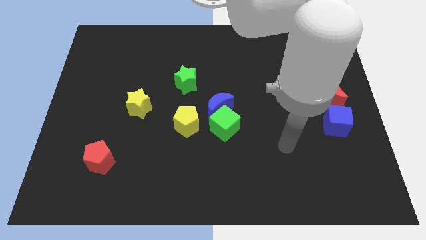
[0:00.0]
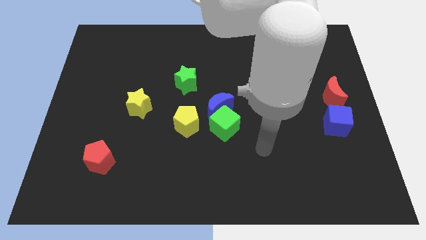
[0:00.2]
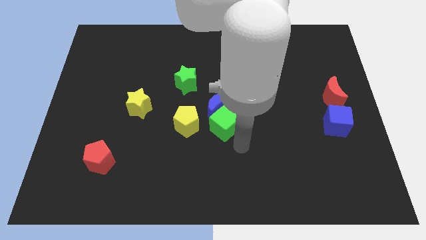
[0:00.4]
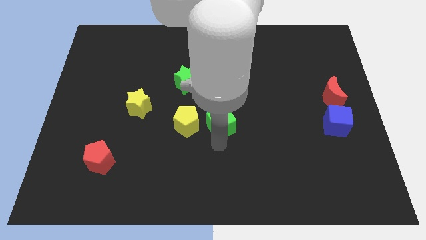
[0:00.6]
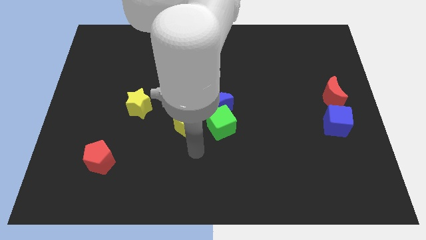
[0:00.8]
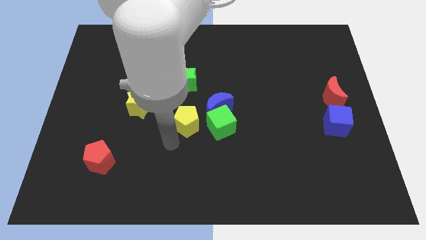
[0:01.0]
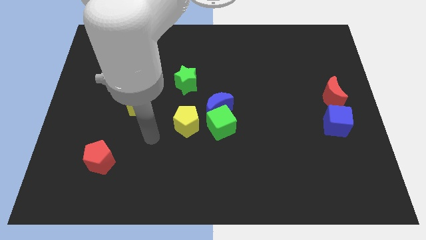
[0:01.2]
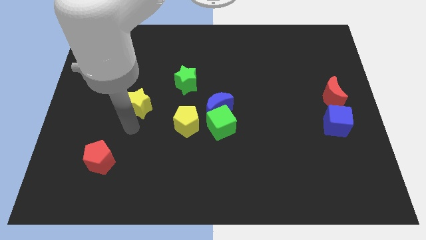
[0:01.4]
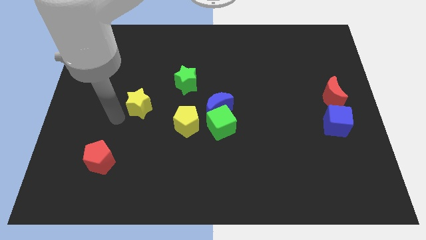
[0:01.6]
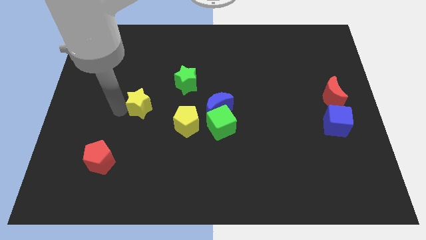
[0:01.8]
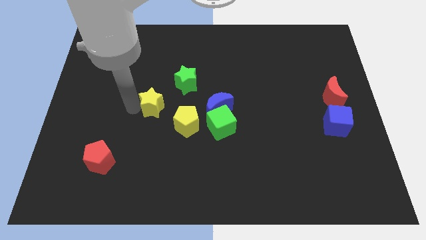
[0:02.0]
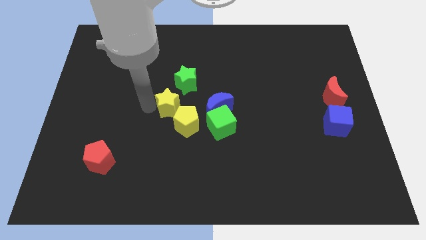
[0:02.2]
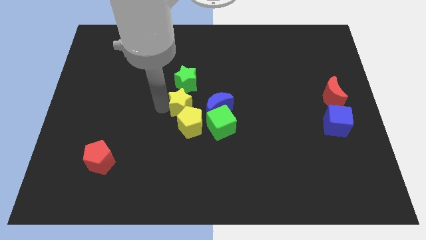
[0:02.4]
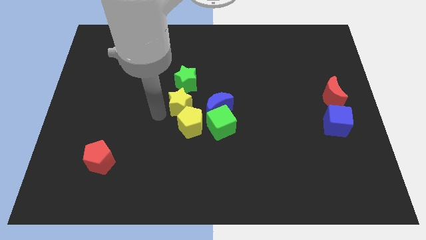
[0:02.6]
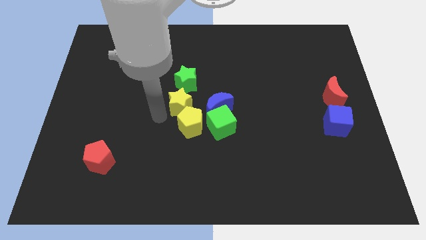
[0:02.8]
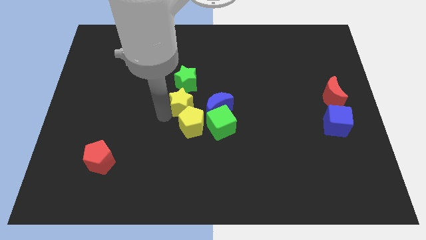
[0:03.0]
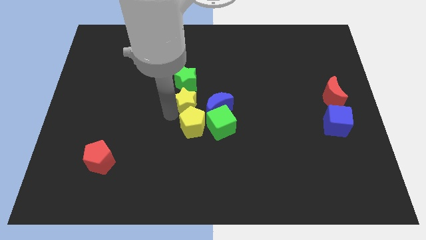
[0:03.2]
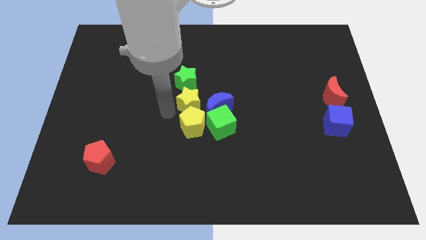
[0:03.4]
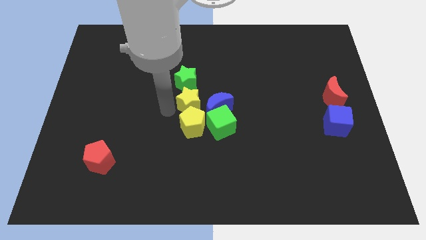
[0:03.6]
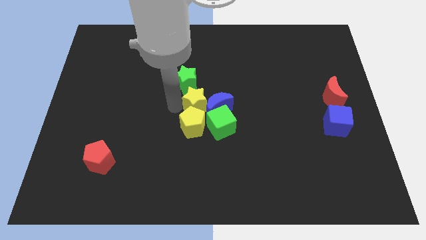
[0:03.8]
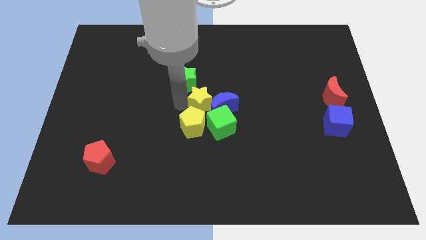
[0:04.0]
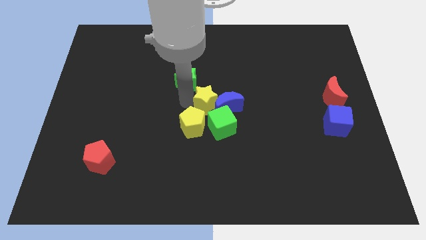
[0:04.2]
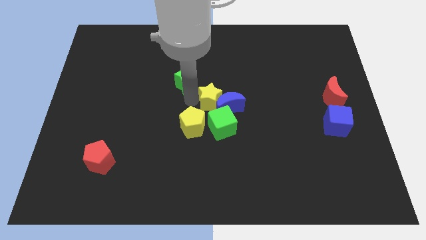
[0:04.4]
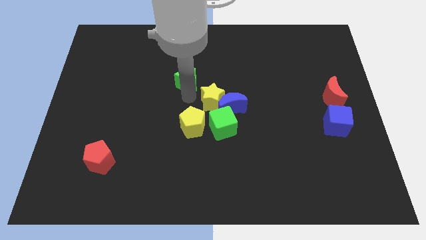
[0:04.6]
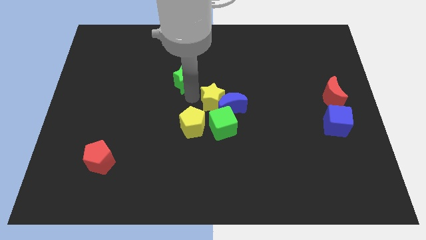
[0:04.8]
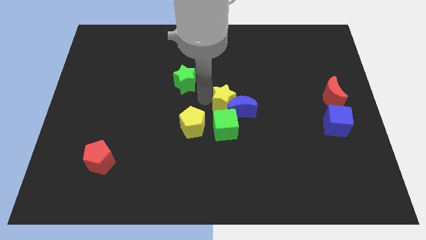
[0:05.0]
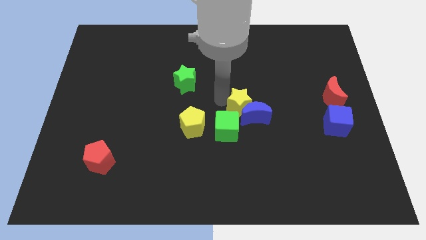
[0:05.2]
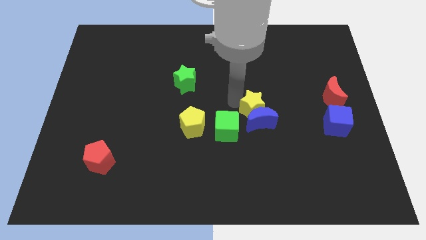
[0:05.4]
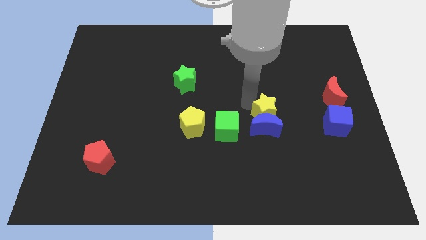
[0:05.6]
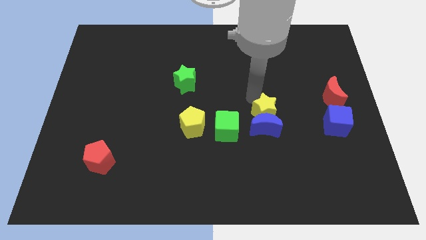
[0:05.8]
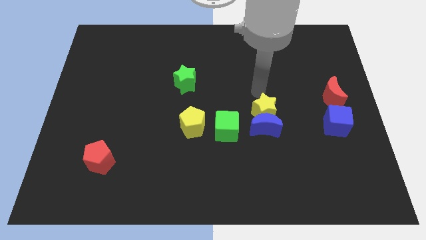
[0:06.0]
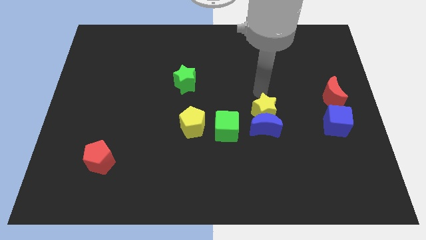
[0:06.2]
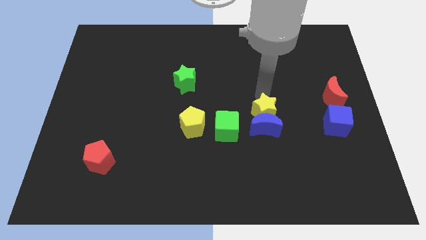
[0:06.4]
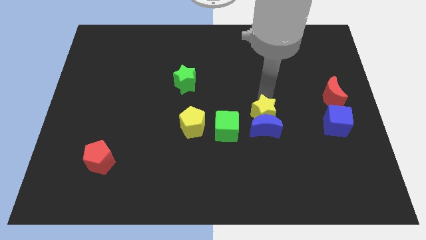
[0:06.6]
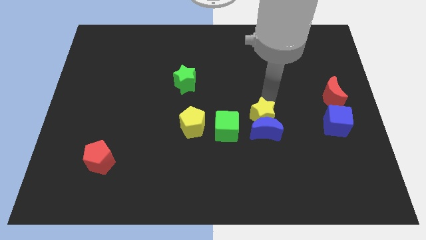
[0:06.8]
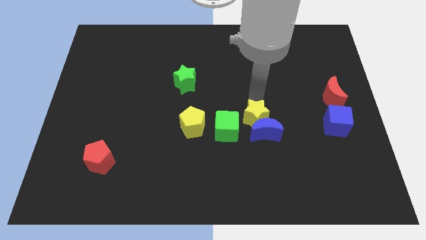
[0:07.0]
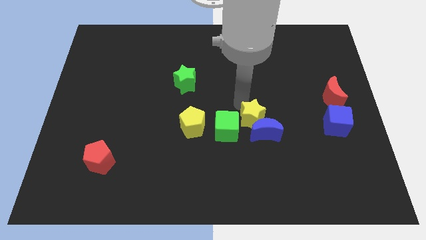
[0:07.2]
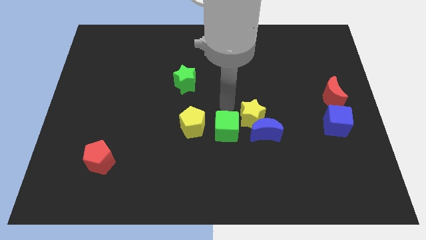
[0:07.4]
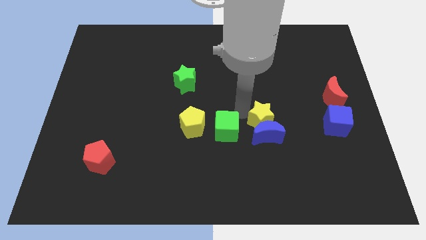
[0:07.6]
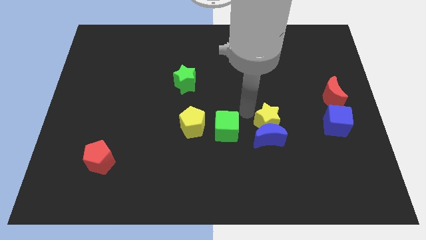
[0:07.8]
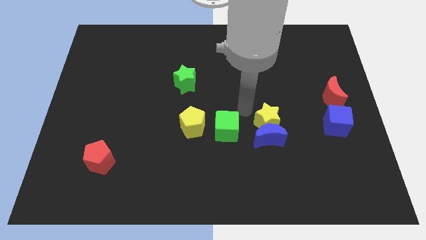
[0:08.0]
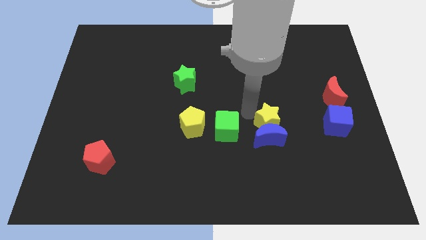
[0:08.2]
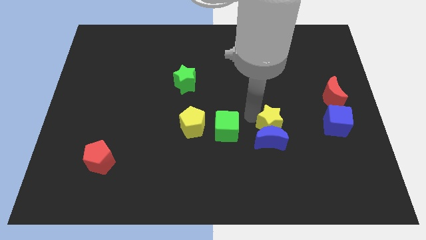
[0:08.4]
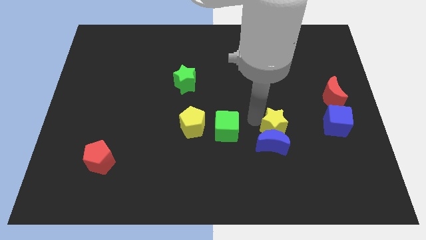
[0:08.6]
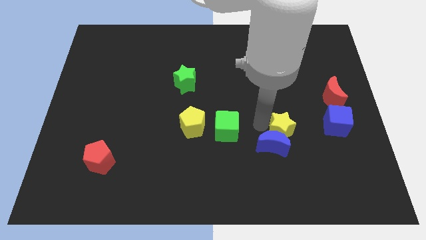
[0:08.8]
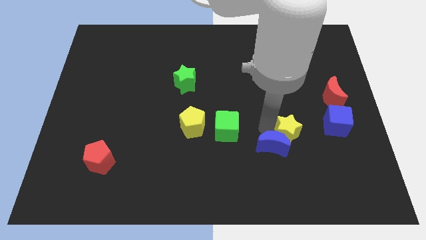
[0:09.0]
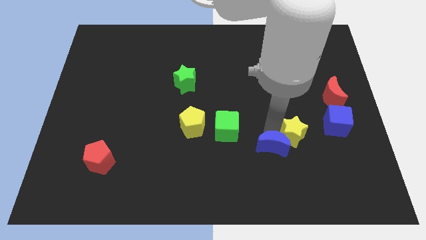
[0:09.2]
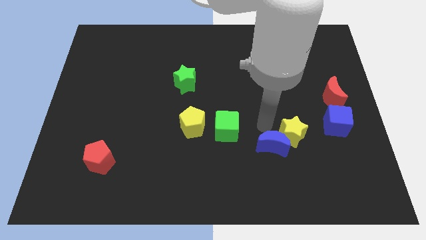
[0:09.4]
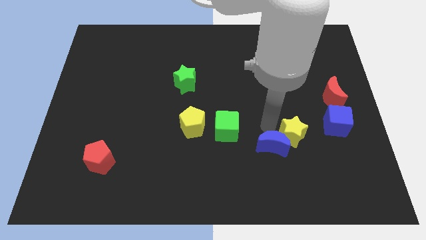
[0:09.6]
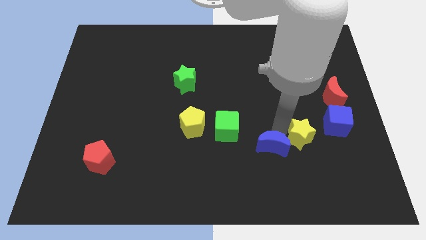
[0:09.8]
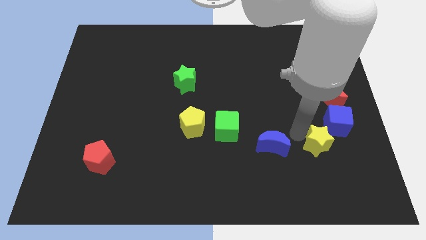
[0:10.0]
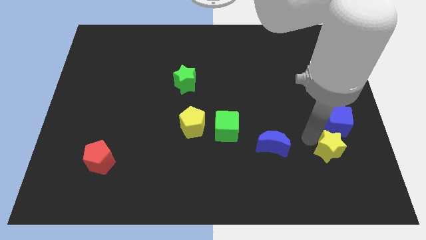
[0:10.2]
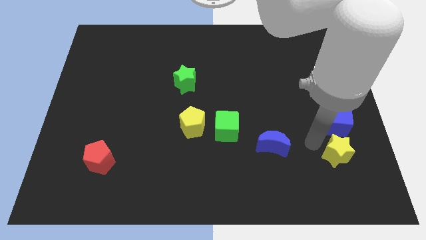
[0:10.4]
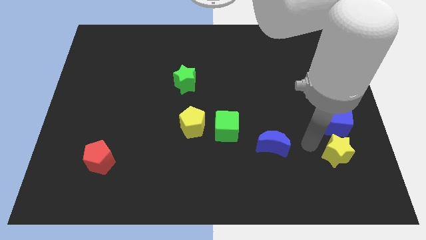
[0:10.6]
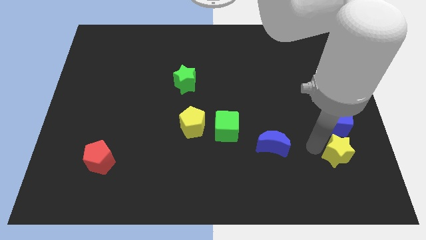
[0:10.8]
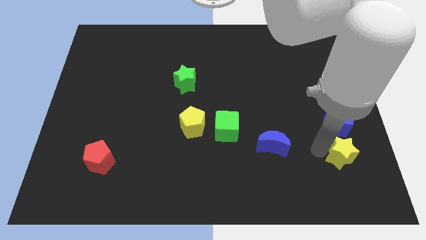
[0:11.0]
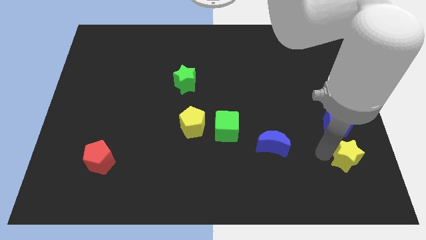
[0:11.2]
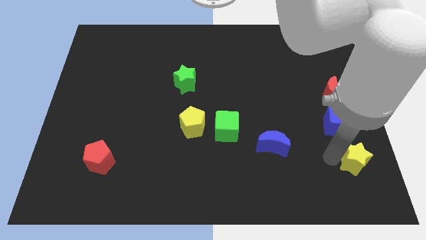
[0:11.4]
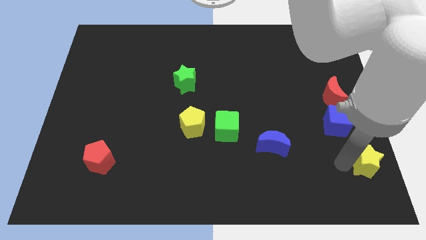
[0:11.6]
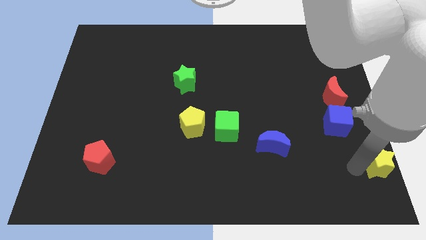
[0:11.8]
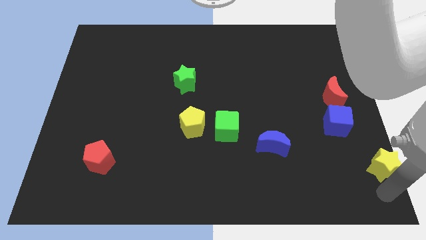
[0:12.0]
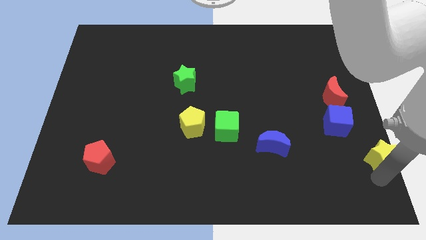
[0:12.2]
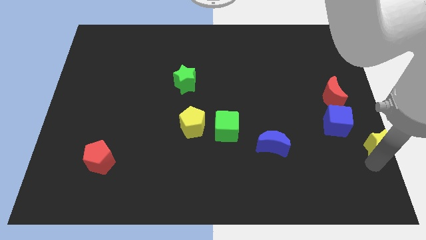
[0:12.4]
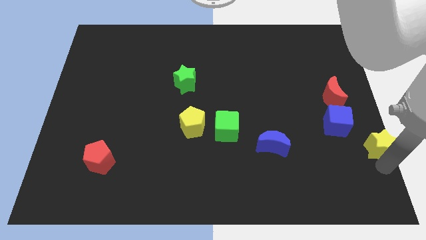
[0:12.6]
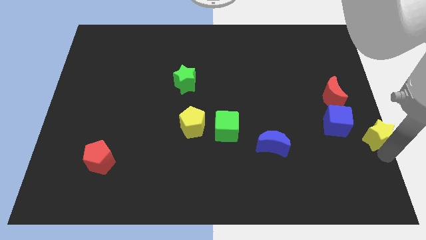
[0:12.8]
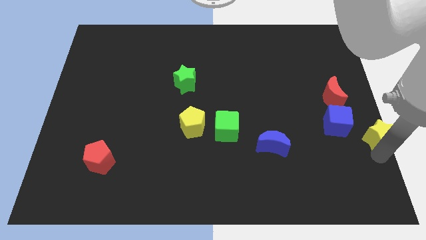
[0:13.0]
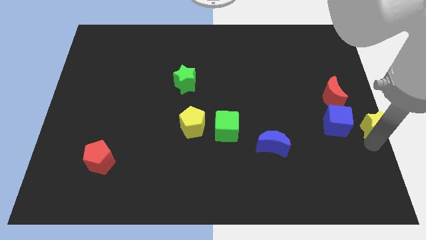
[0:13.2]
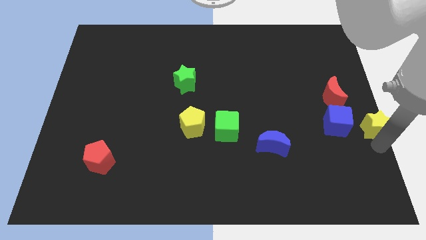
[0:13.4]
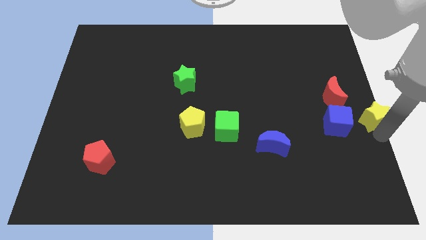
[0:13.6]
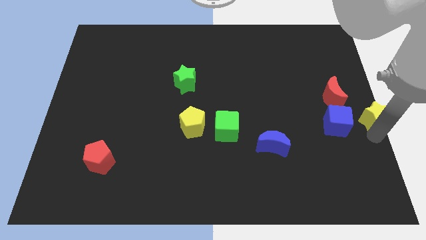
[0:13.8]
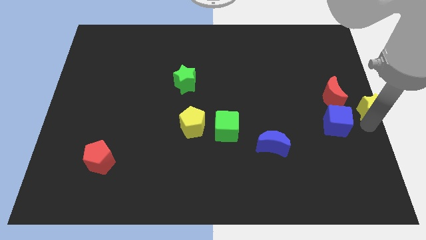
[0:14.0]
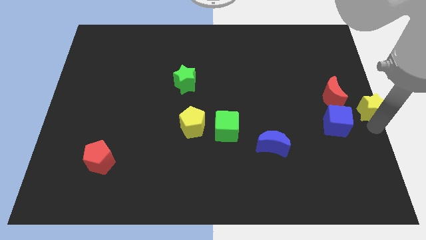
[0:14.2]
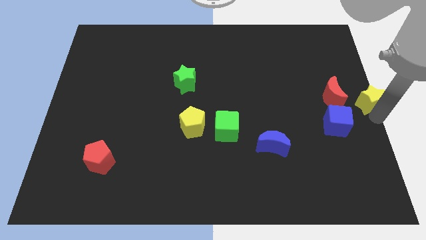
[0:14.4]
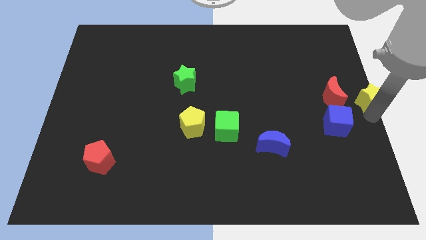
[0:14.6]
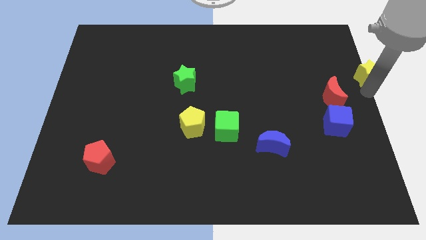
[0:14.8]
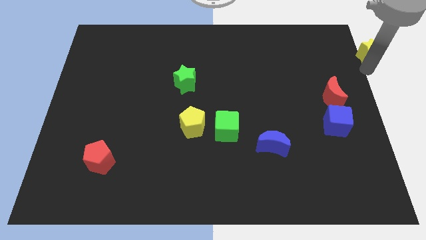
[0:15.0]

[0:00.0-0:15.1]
slide the yellow star to the upper right corner

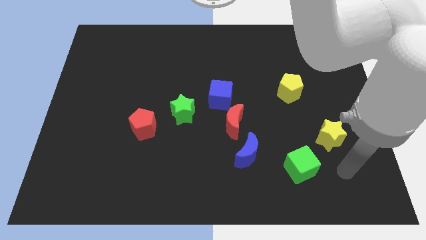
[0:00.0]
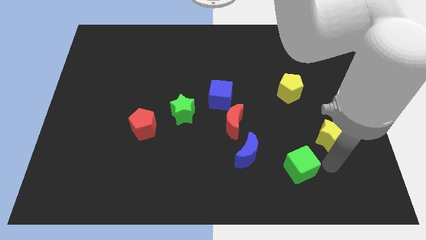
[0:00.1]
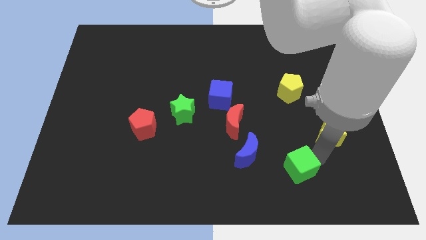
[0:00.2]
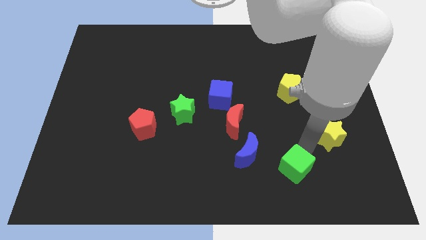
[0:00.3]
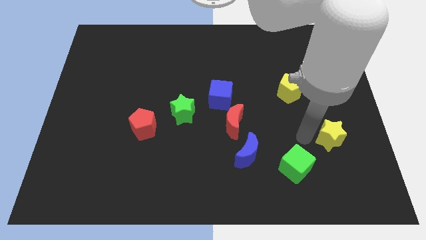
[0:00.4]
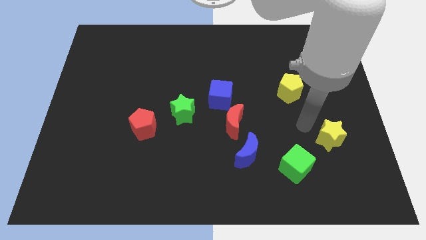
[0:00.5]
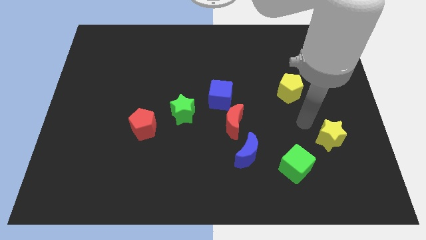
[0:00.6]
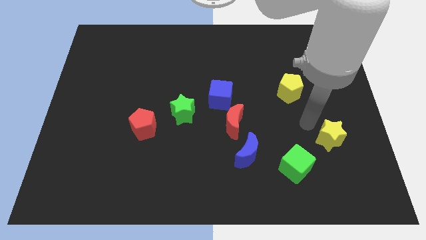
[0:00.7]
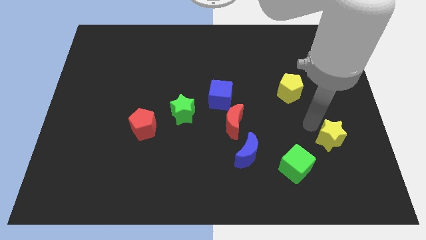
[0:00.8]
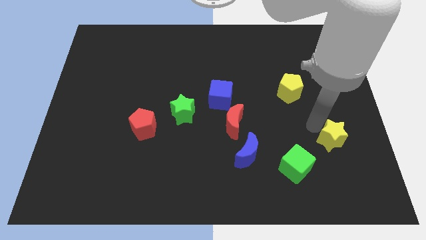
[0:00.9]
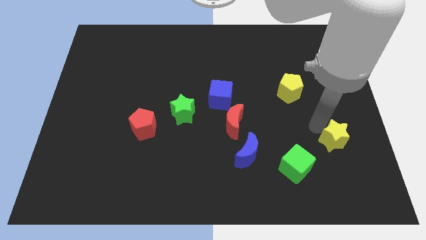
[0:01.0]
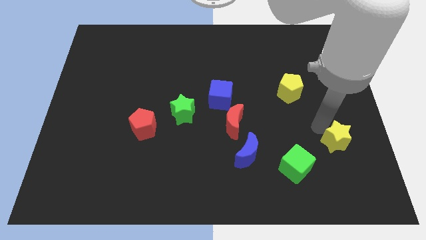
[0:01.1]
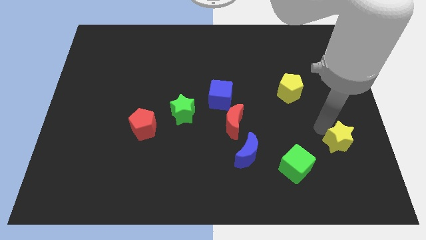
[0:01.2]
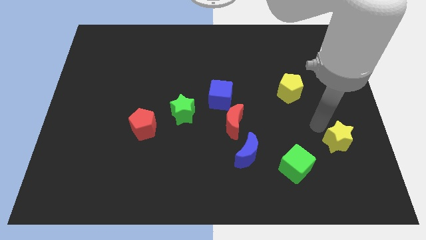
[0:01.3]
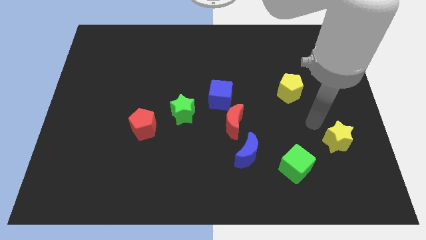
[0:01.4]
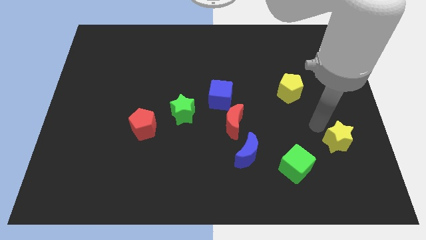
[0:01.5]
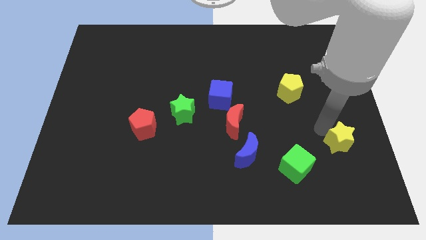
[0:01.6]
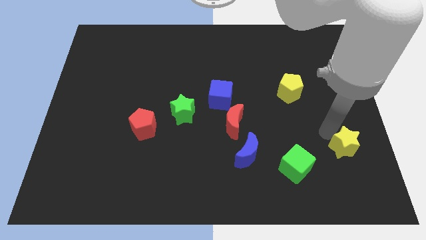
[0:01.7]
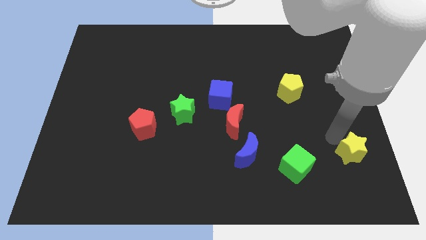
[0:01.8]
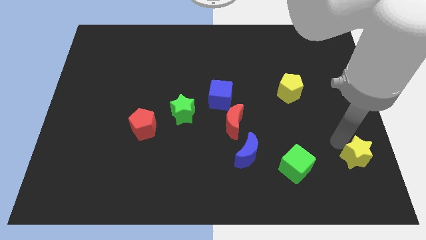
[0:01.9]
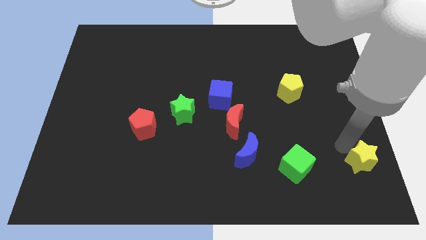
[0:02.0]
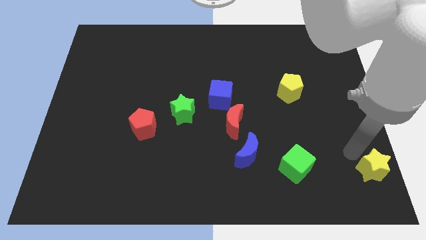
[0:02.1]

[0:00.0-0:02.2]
slide the yellow star to the bottom right of the board
